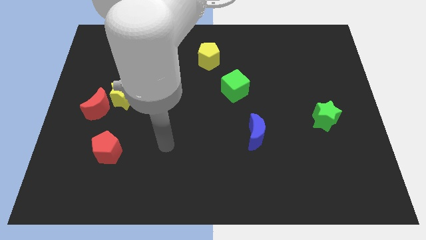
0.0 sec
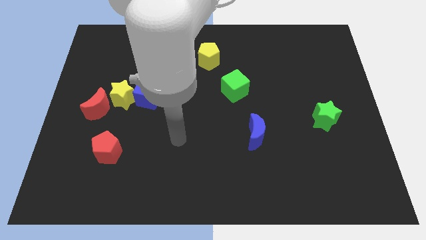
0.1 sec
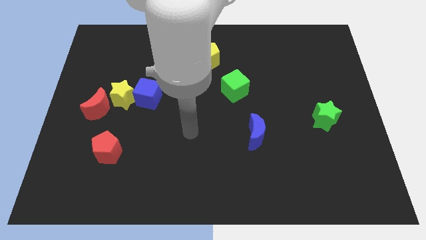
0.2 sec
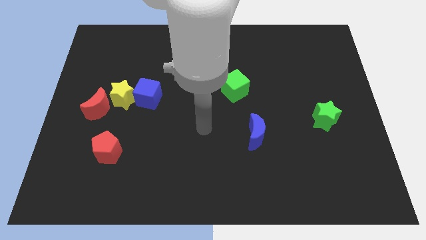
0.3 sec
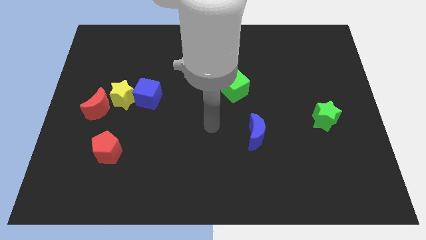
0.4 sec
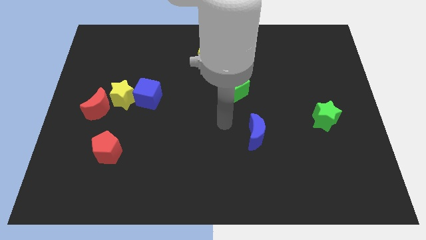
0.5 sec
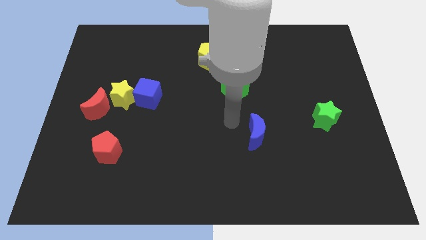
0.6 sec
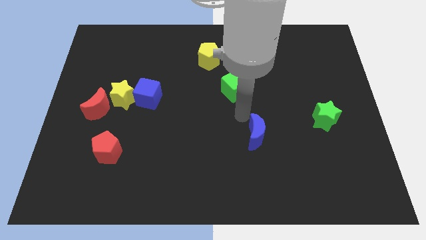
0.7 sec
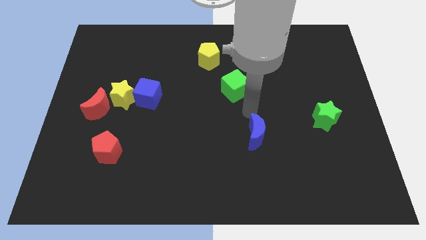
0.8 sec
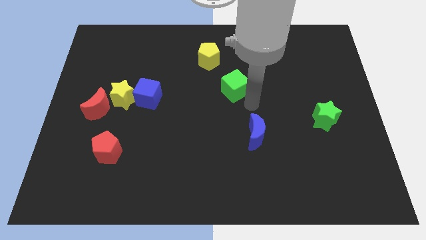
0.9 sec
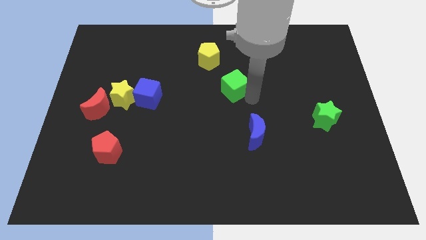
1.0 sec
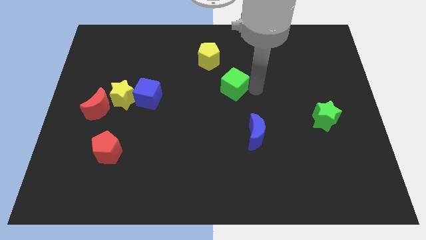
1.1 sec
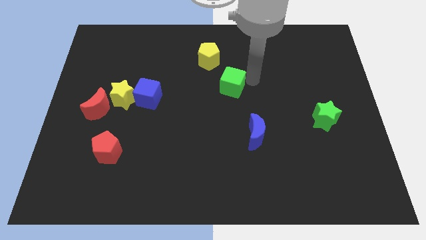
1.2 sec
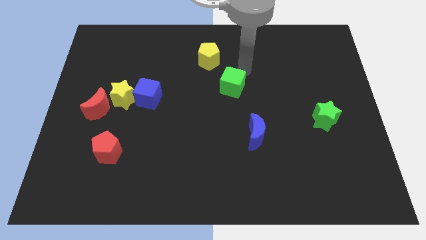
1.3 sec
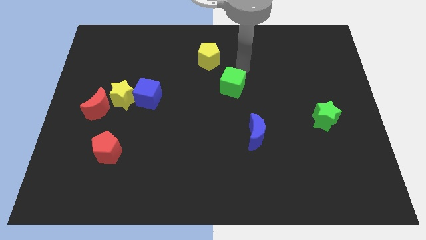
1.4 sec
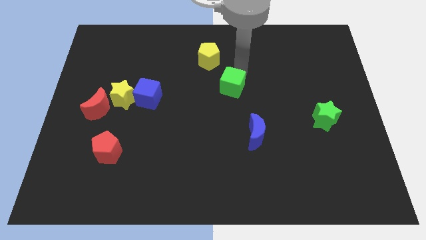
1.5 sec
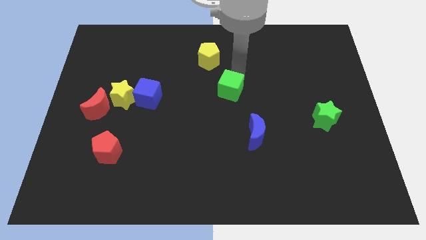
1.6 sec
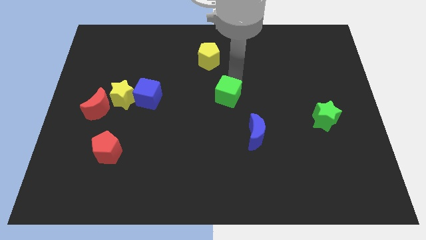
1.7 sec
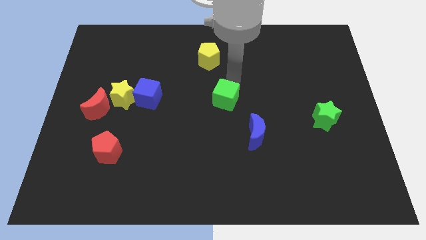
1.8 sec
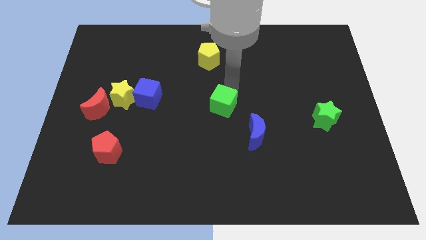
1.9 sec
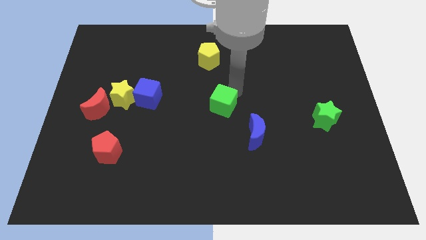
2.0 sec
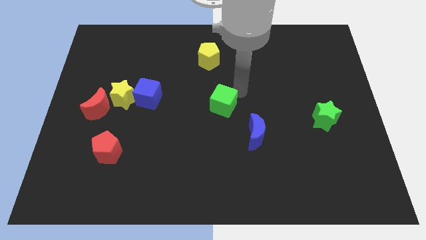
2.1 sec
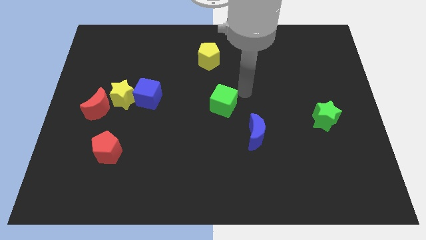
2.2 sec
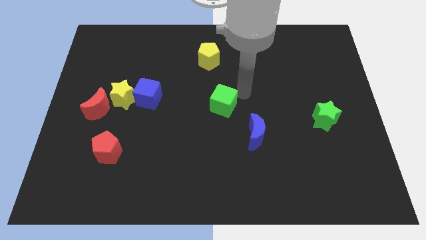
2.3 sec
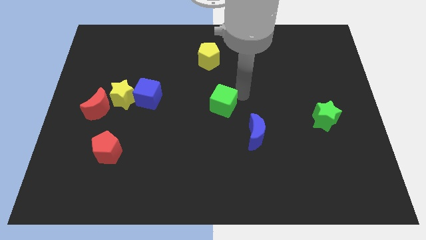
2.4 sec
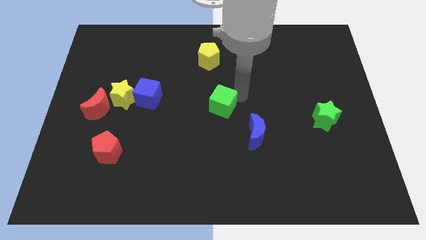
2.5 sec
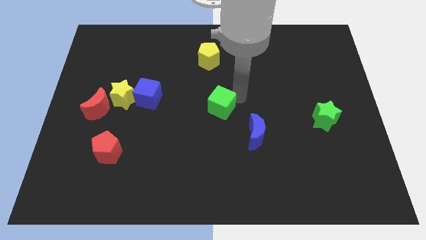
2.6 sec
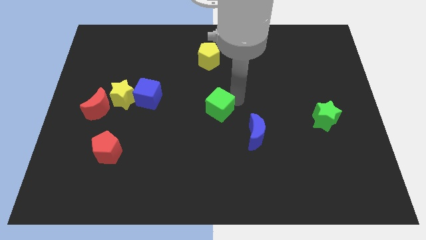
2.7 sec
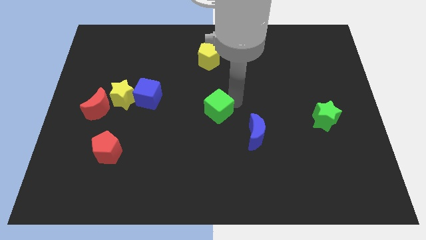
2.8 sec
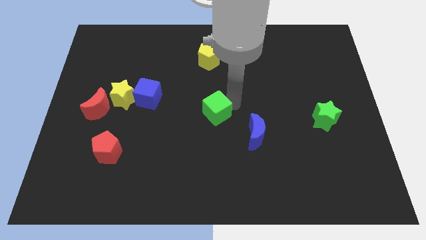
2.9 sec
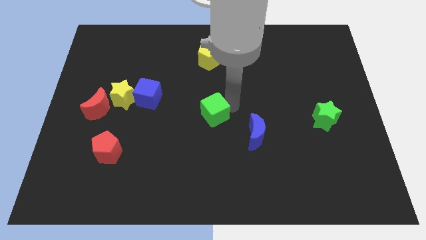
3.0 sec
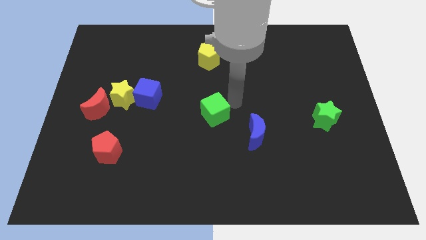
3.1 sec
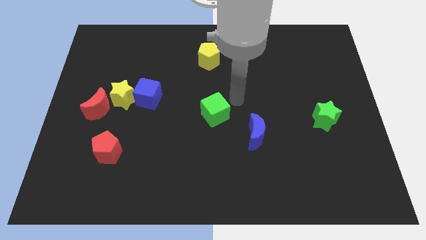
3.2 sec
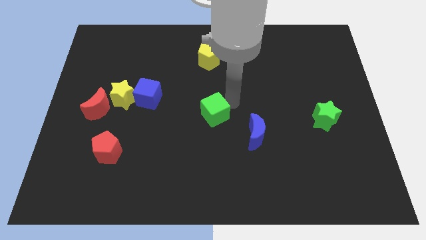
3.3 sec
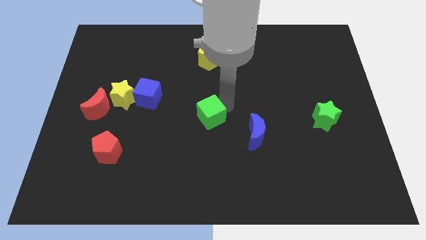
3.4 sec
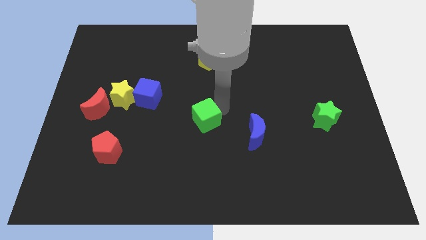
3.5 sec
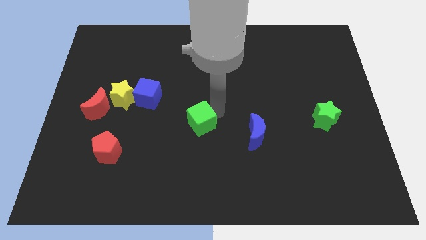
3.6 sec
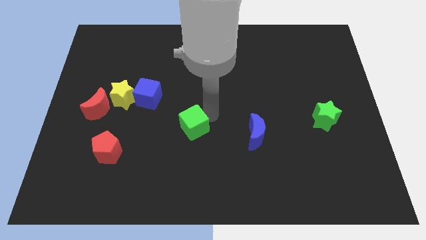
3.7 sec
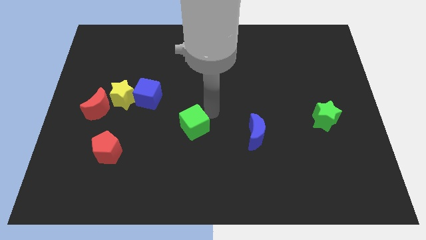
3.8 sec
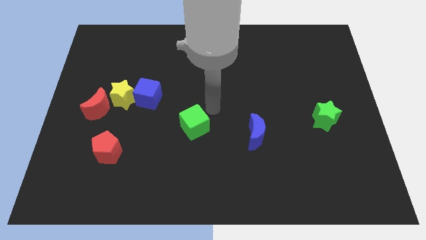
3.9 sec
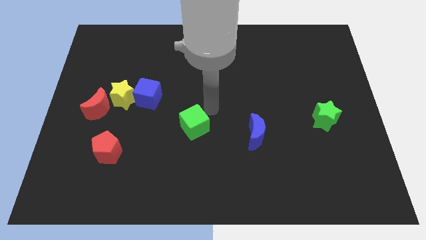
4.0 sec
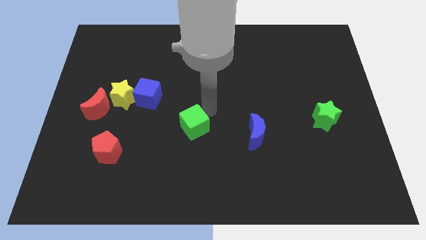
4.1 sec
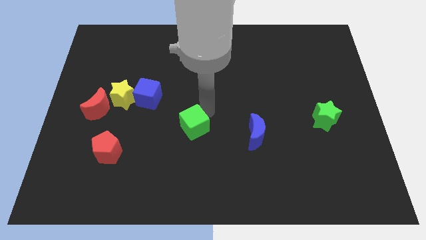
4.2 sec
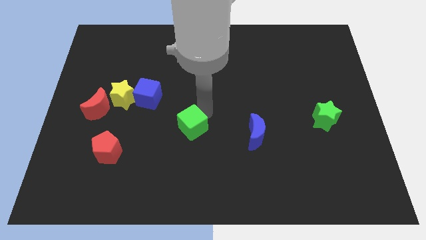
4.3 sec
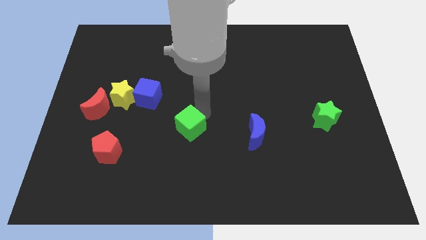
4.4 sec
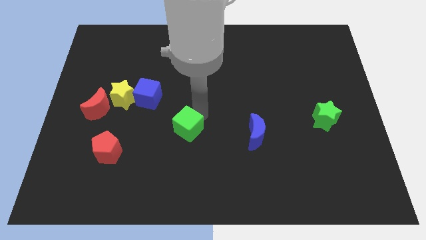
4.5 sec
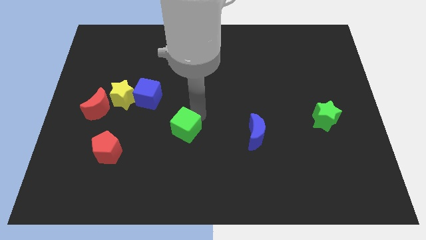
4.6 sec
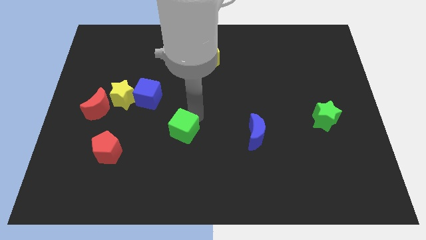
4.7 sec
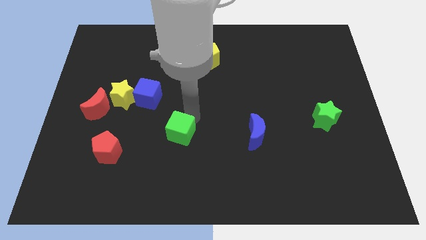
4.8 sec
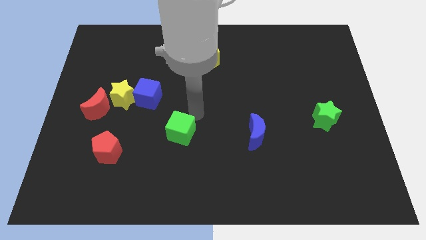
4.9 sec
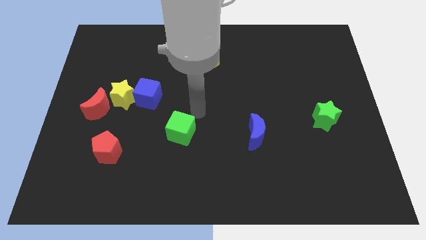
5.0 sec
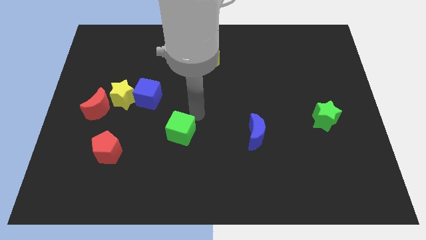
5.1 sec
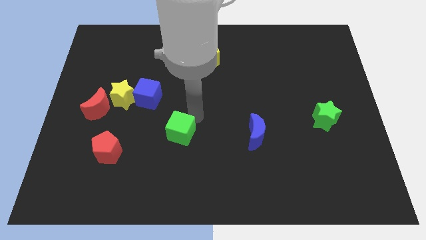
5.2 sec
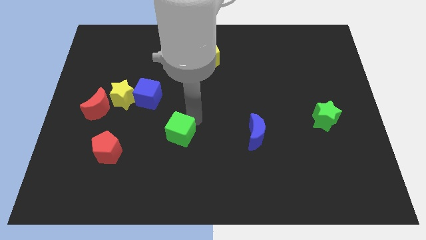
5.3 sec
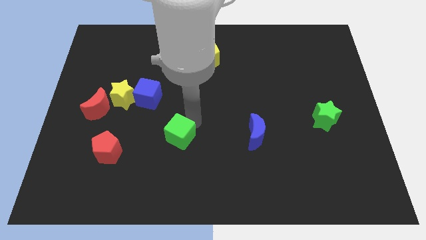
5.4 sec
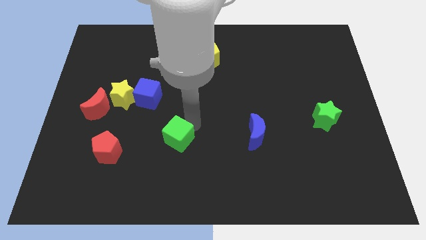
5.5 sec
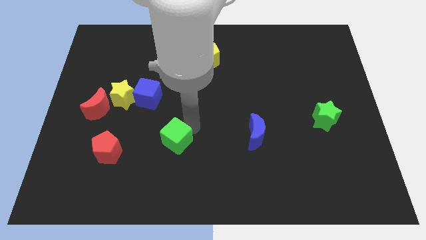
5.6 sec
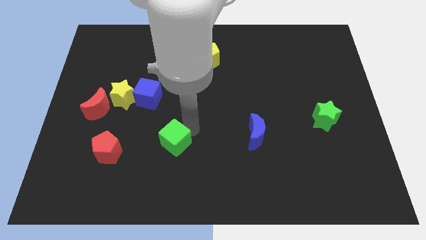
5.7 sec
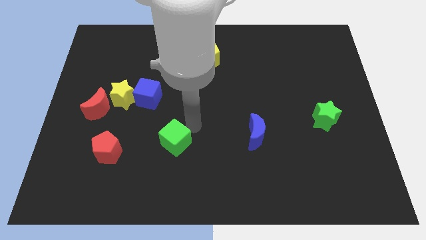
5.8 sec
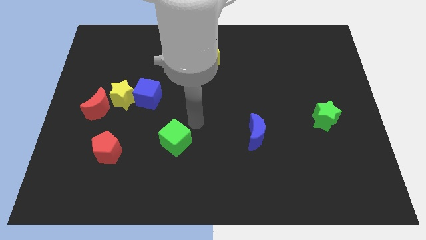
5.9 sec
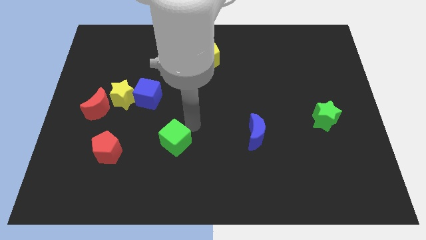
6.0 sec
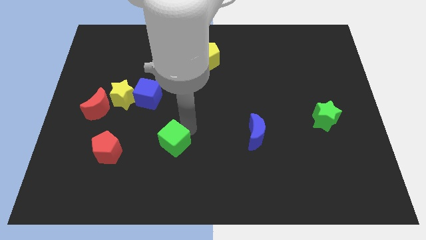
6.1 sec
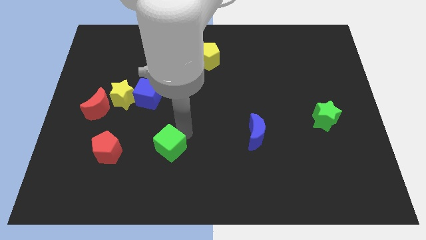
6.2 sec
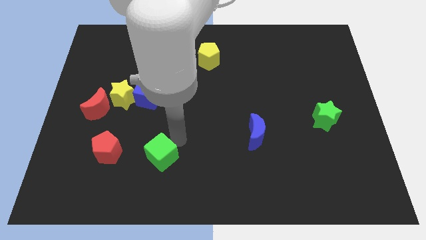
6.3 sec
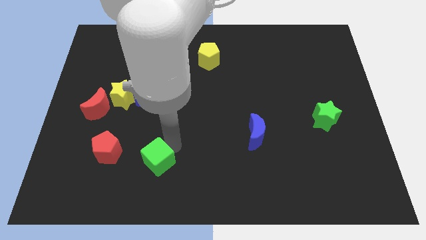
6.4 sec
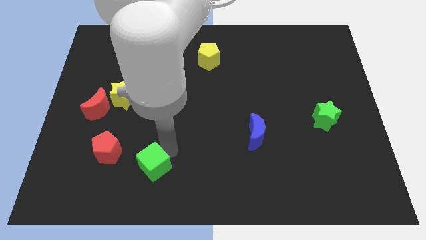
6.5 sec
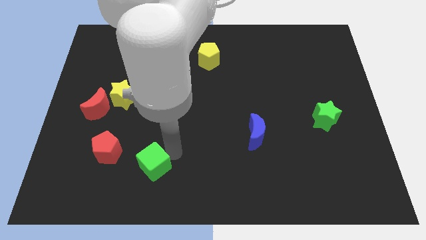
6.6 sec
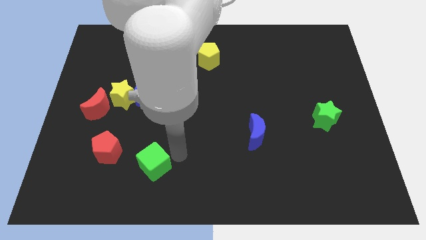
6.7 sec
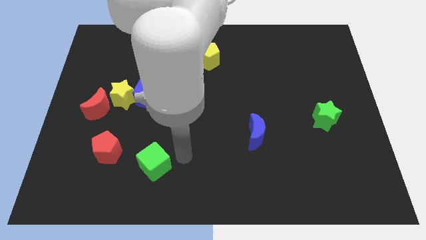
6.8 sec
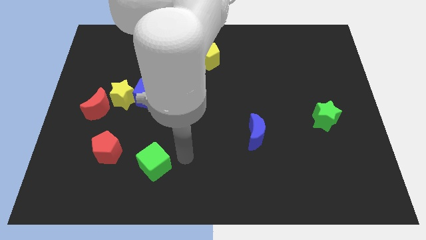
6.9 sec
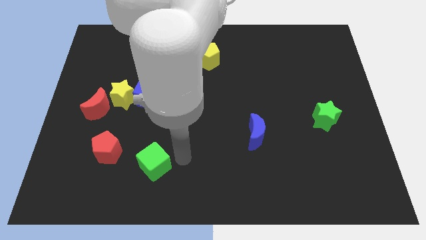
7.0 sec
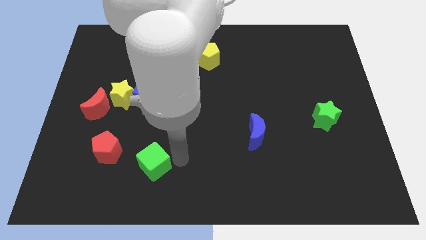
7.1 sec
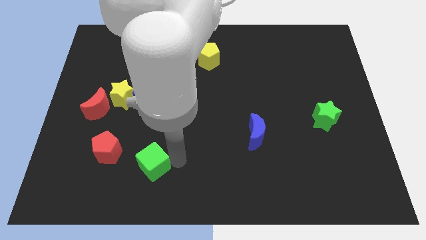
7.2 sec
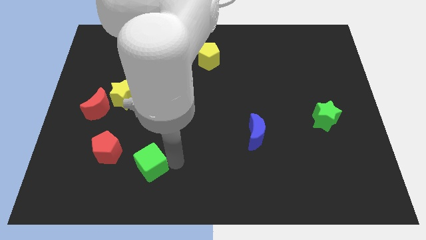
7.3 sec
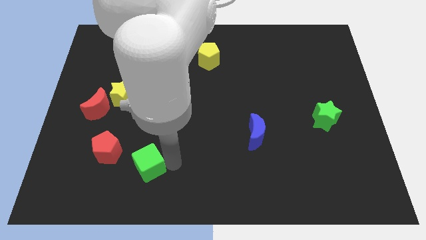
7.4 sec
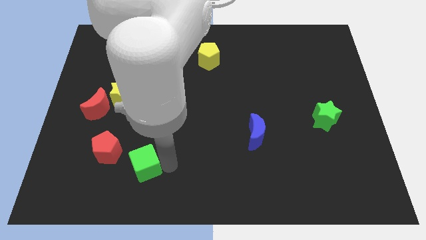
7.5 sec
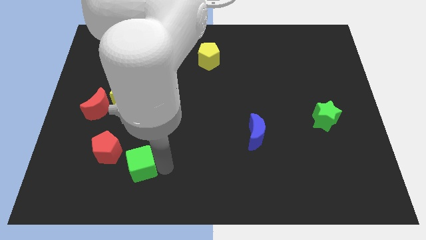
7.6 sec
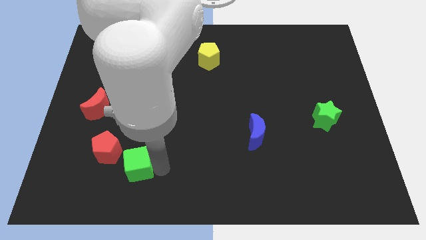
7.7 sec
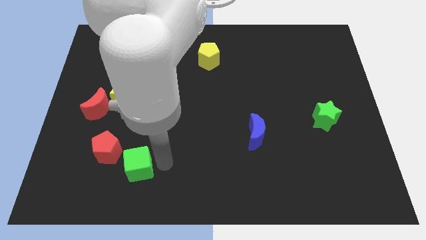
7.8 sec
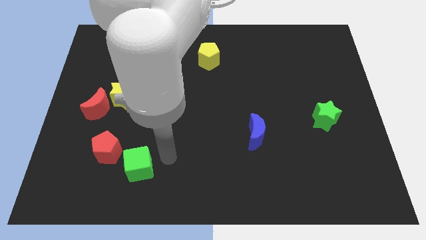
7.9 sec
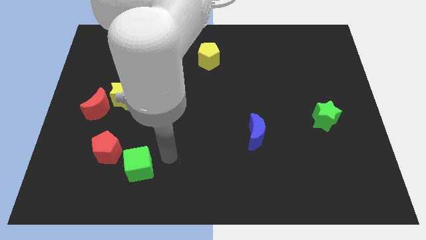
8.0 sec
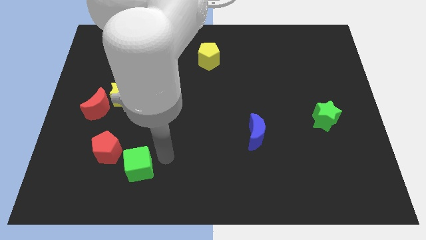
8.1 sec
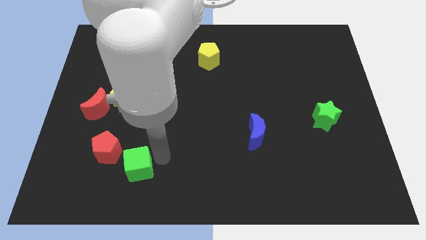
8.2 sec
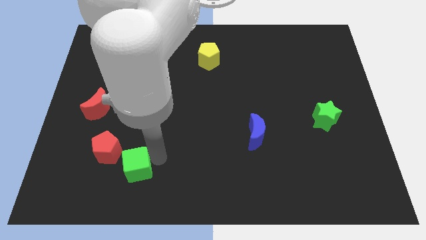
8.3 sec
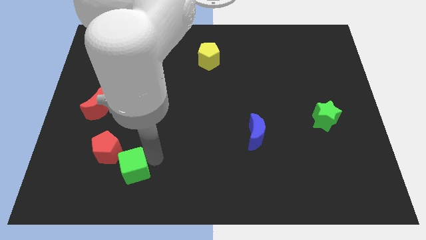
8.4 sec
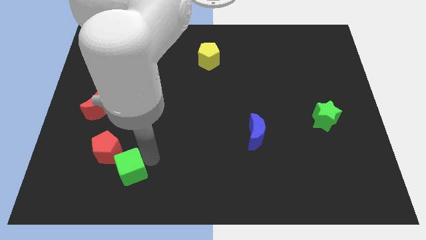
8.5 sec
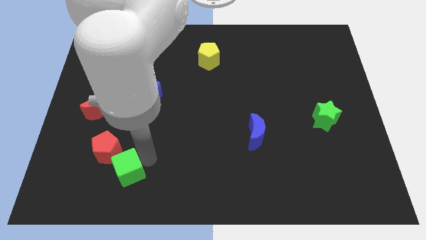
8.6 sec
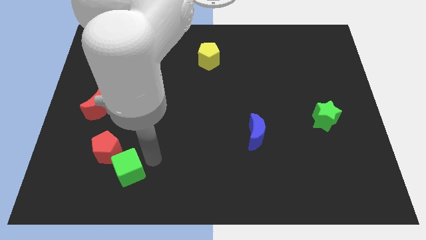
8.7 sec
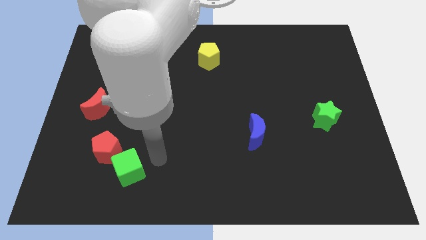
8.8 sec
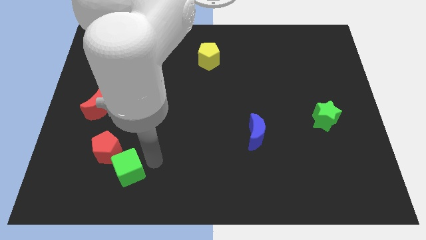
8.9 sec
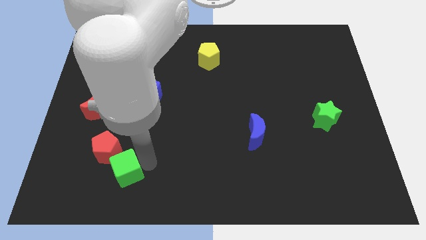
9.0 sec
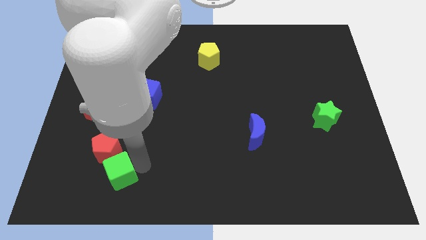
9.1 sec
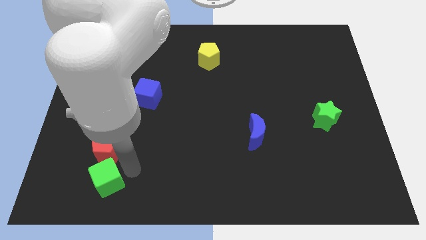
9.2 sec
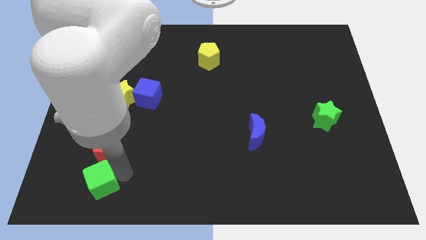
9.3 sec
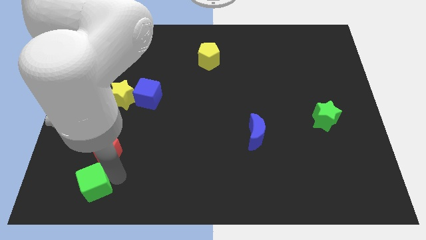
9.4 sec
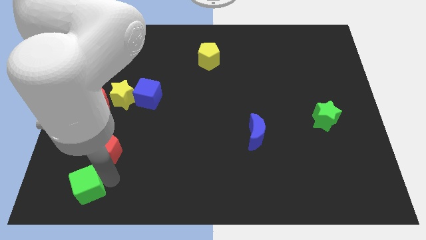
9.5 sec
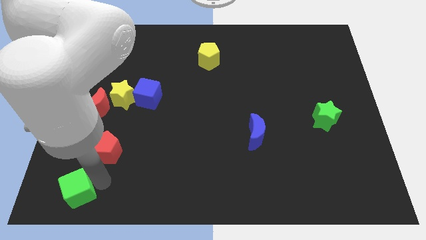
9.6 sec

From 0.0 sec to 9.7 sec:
move the green cube to the bottom left corner
